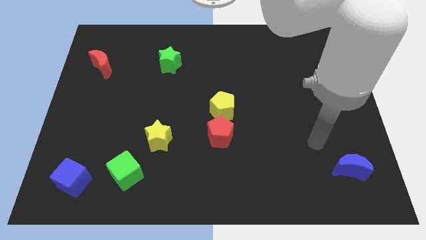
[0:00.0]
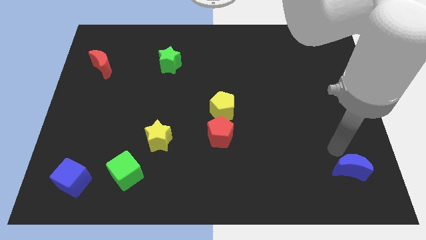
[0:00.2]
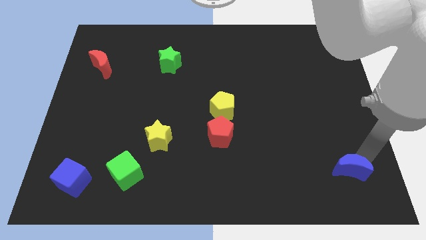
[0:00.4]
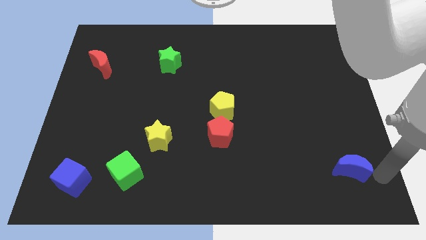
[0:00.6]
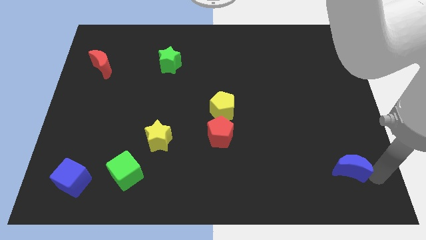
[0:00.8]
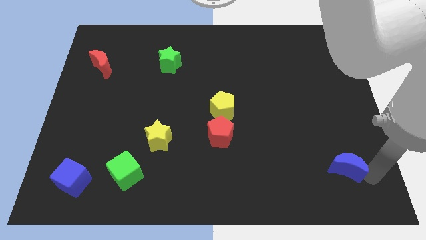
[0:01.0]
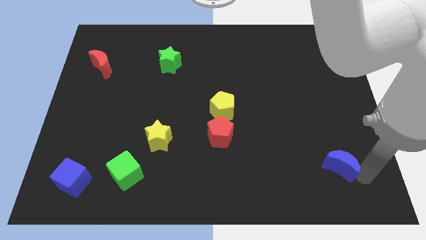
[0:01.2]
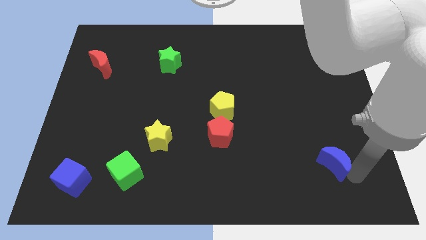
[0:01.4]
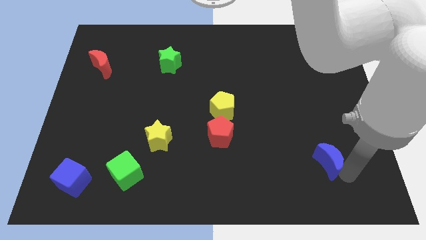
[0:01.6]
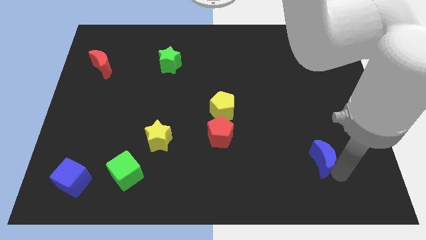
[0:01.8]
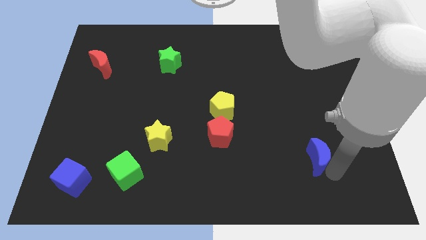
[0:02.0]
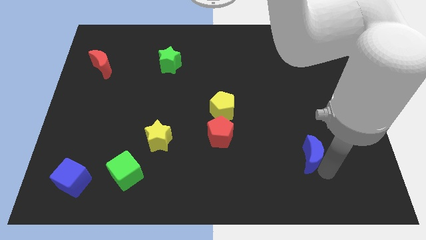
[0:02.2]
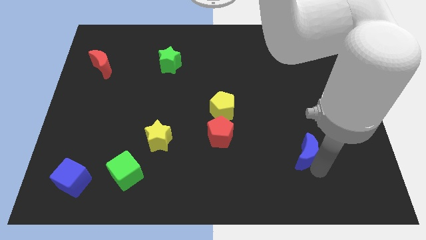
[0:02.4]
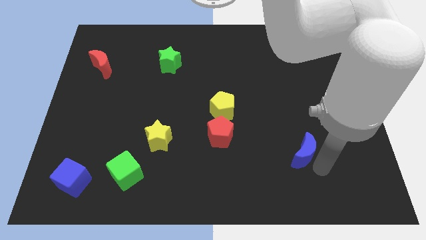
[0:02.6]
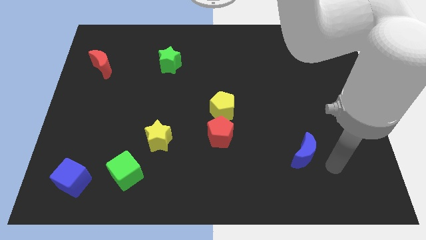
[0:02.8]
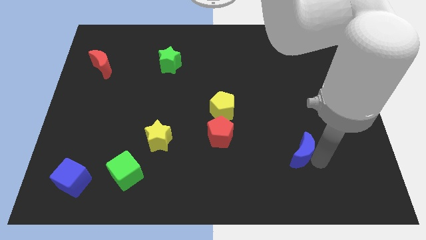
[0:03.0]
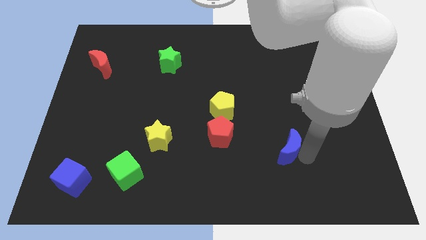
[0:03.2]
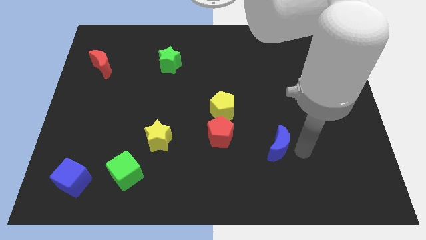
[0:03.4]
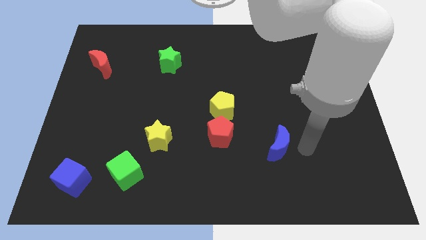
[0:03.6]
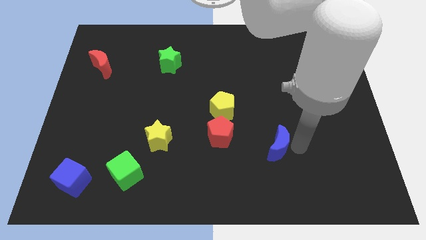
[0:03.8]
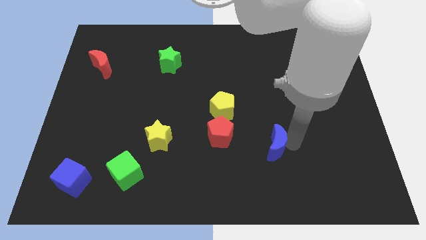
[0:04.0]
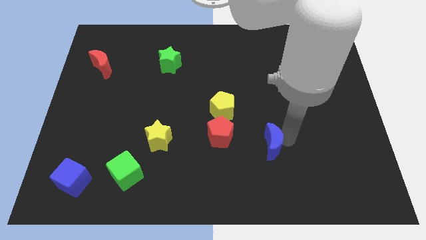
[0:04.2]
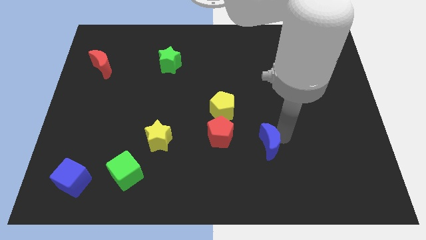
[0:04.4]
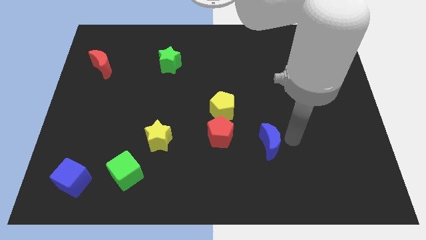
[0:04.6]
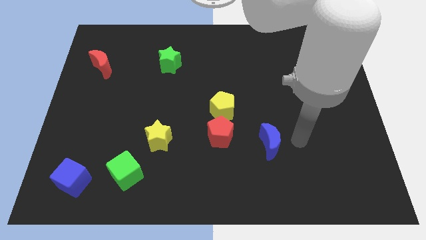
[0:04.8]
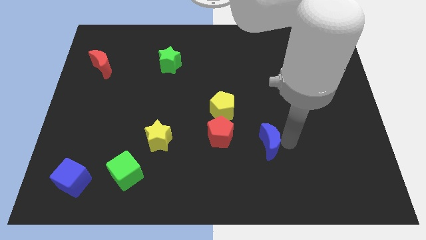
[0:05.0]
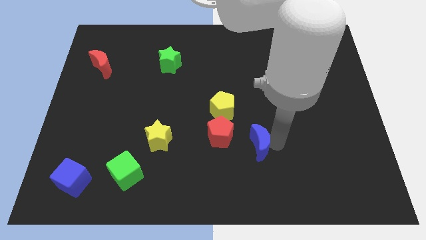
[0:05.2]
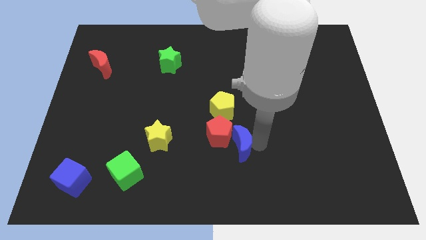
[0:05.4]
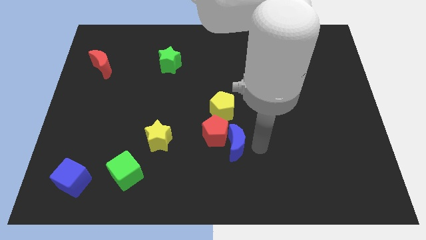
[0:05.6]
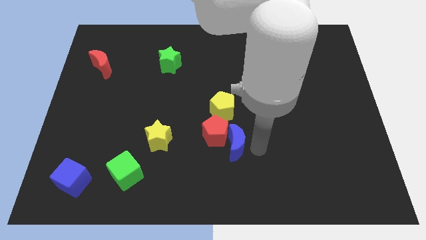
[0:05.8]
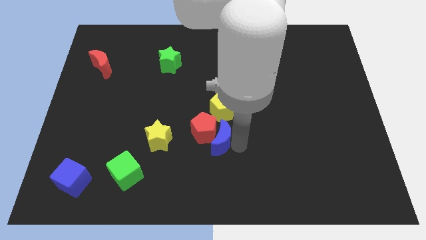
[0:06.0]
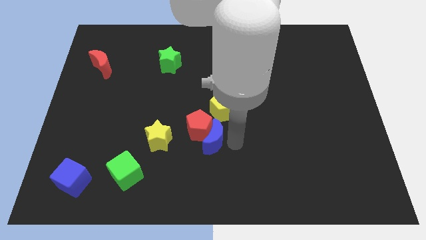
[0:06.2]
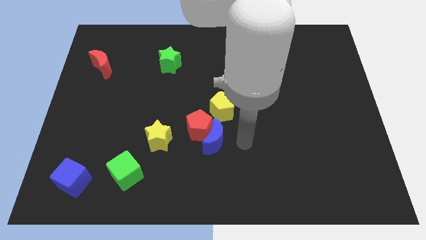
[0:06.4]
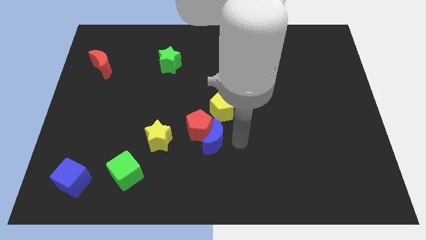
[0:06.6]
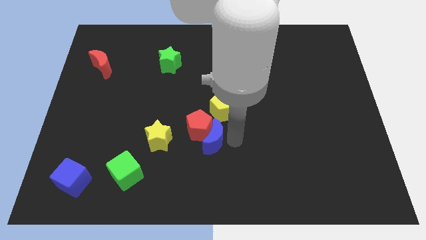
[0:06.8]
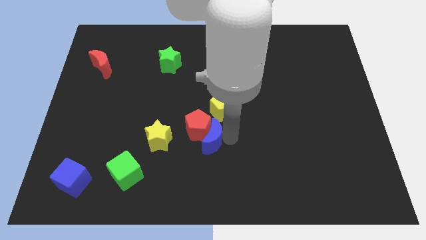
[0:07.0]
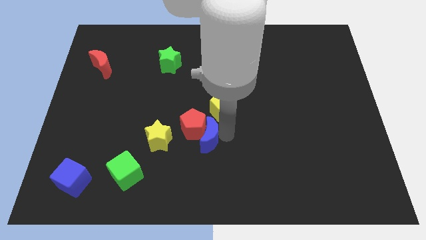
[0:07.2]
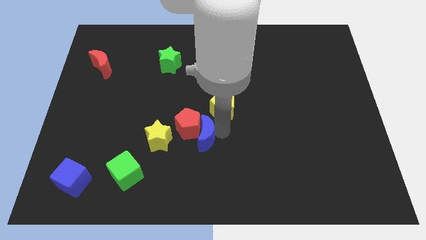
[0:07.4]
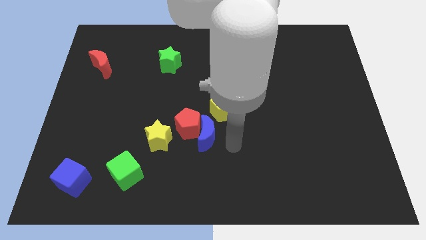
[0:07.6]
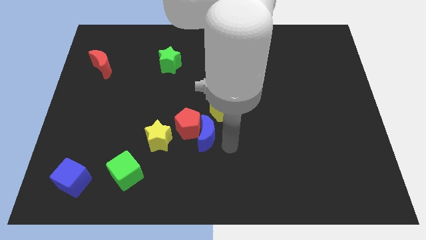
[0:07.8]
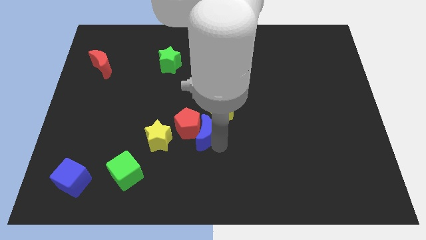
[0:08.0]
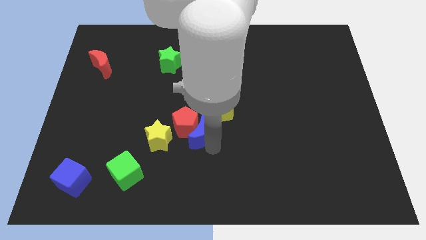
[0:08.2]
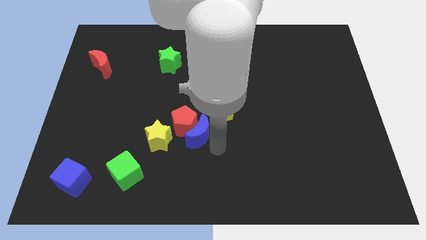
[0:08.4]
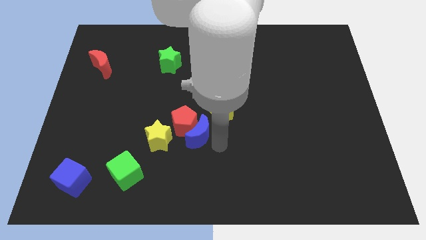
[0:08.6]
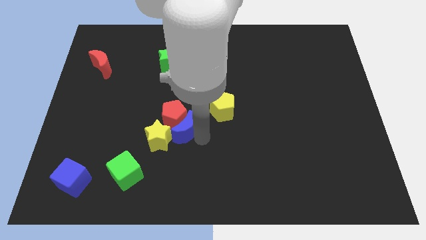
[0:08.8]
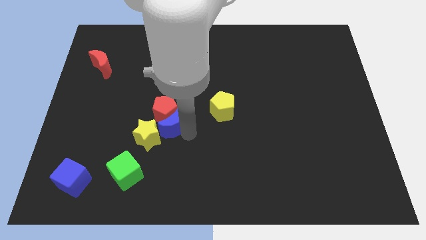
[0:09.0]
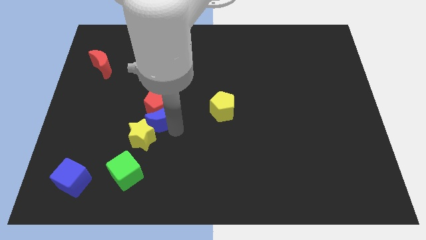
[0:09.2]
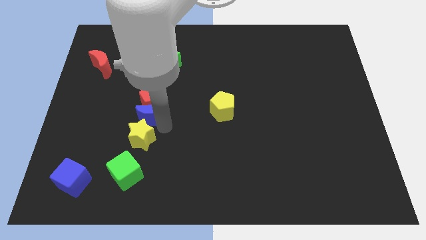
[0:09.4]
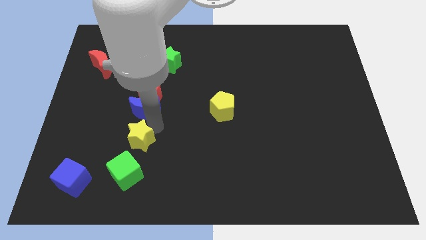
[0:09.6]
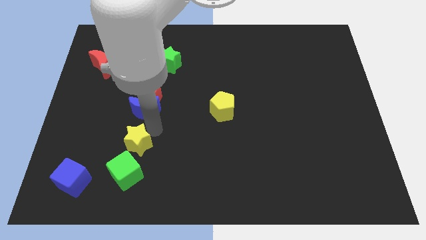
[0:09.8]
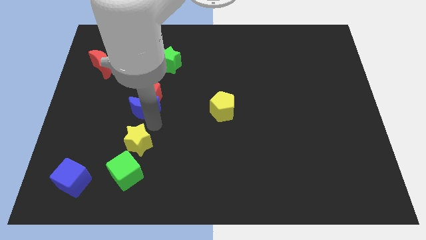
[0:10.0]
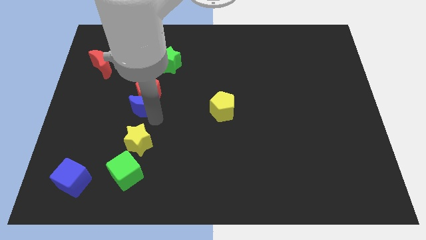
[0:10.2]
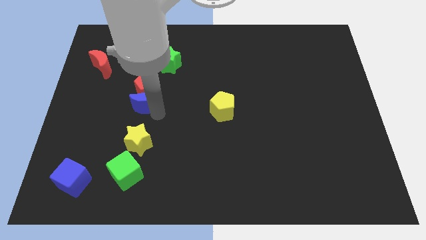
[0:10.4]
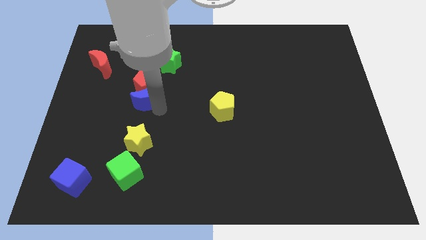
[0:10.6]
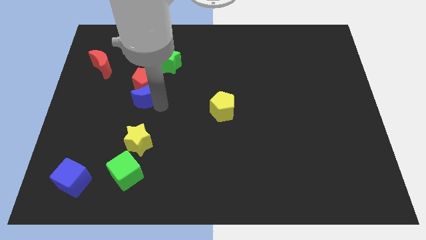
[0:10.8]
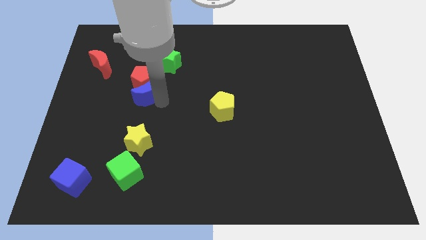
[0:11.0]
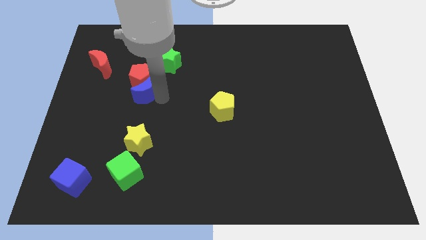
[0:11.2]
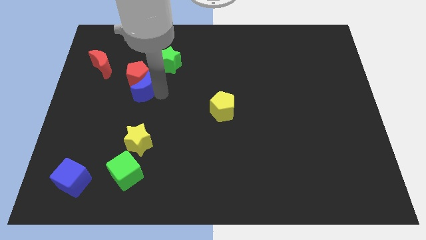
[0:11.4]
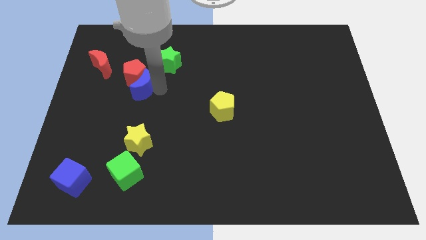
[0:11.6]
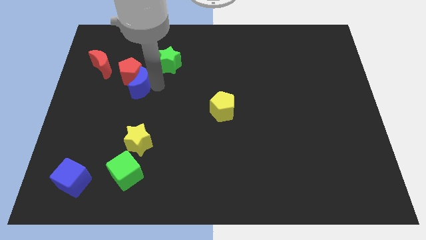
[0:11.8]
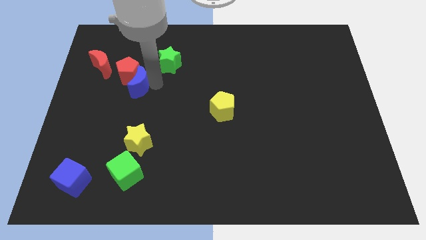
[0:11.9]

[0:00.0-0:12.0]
slide the blue moon to the bottom right of the red moon
